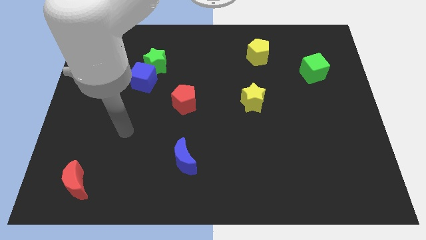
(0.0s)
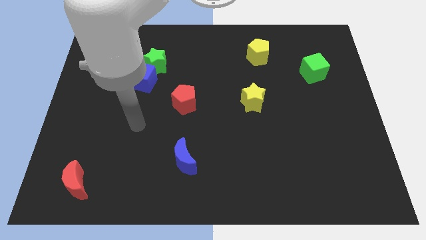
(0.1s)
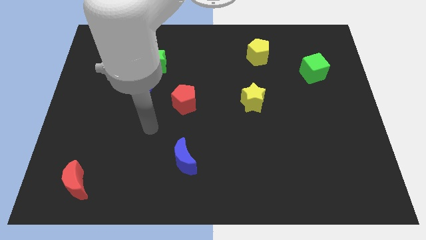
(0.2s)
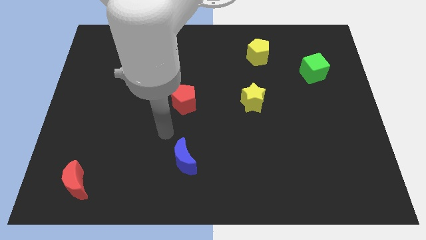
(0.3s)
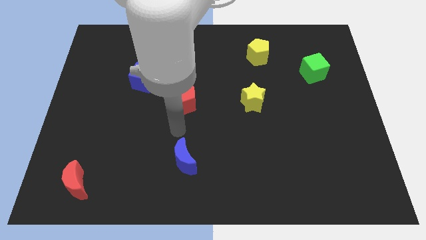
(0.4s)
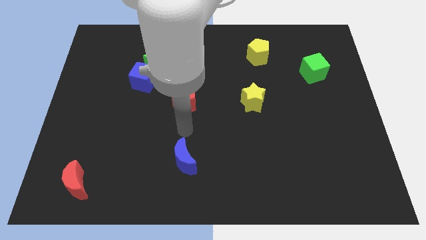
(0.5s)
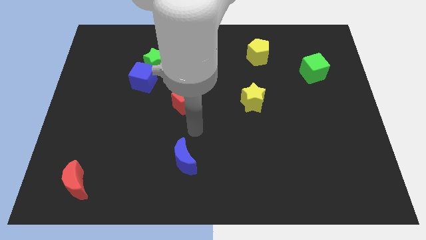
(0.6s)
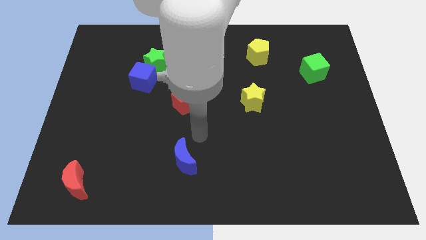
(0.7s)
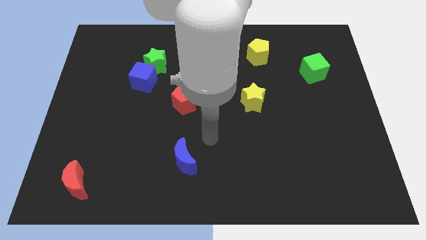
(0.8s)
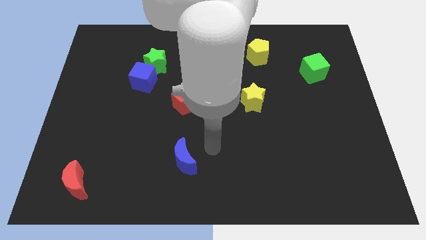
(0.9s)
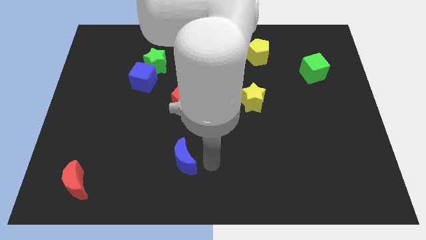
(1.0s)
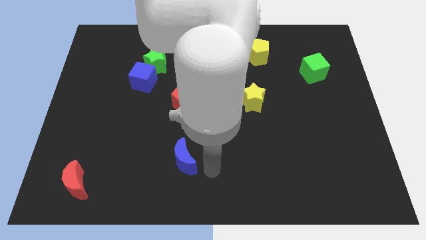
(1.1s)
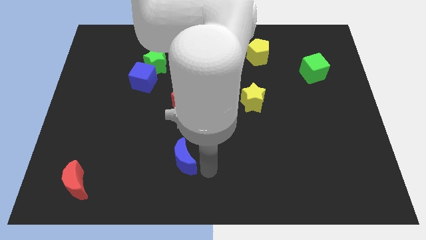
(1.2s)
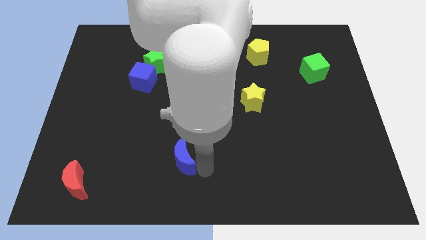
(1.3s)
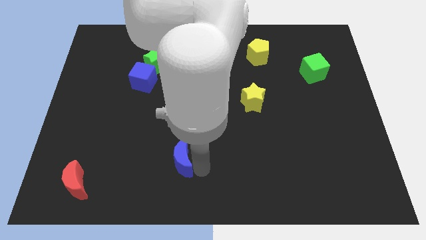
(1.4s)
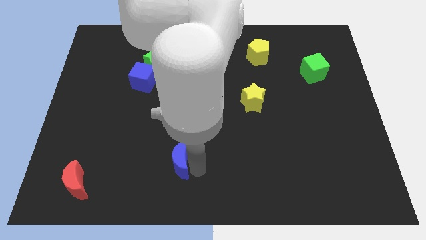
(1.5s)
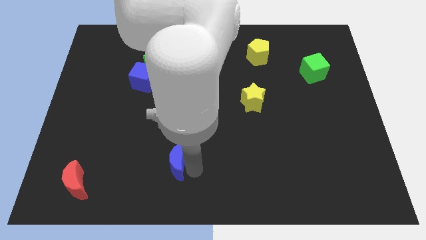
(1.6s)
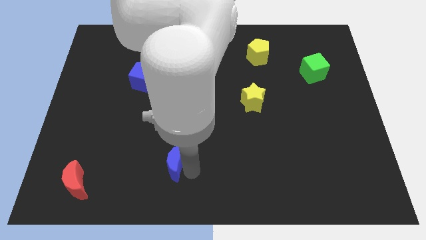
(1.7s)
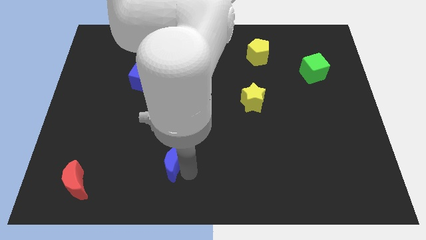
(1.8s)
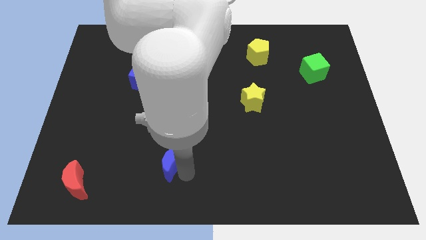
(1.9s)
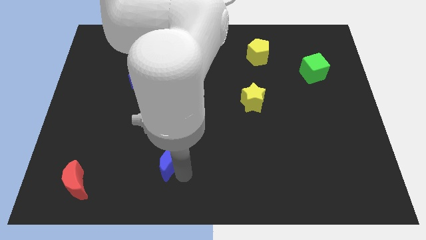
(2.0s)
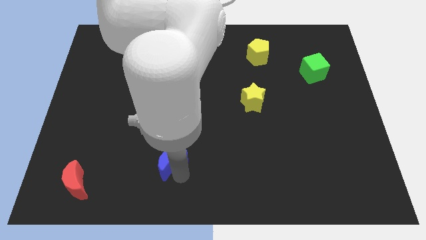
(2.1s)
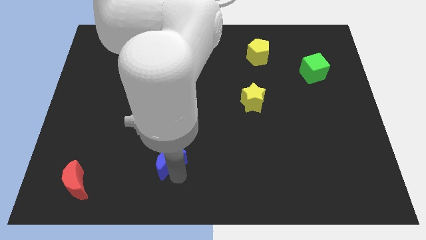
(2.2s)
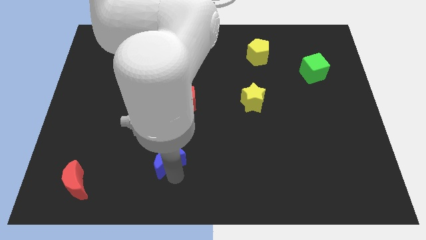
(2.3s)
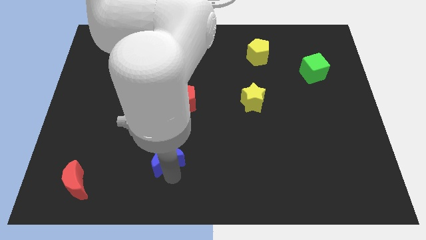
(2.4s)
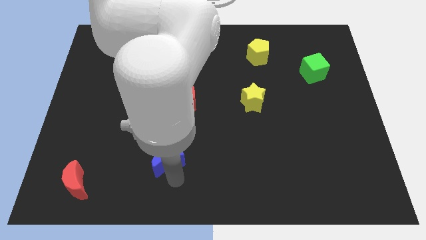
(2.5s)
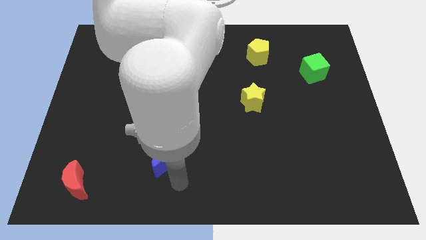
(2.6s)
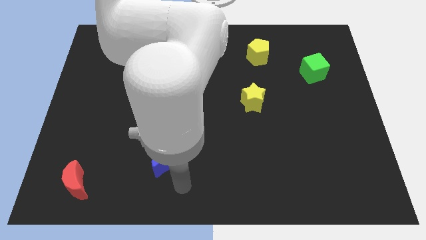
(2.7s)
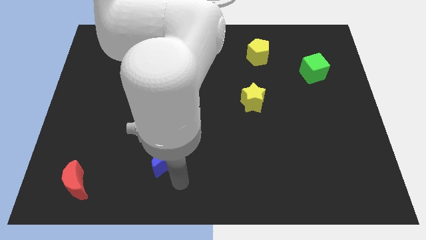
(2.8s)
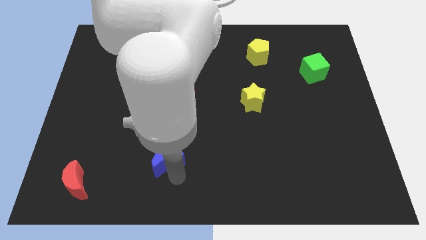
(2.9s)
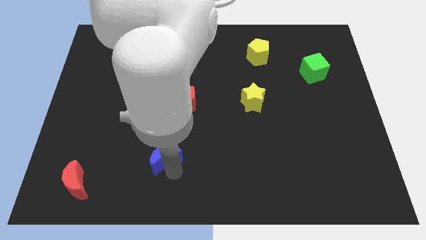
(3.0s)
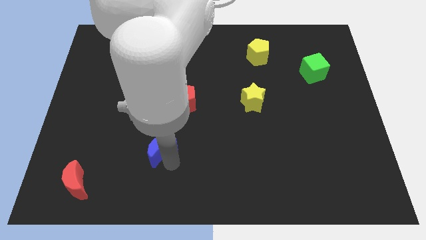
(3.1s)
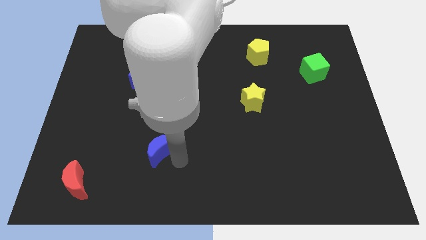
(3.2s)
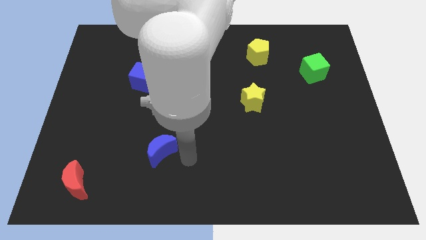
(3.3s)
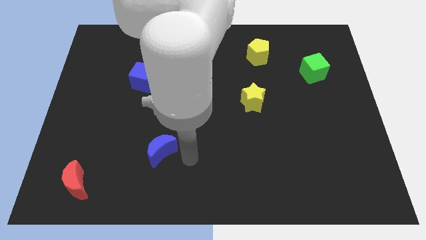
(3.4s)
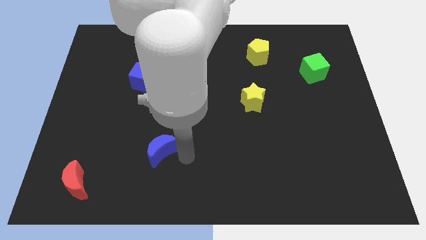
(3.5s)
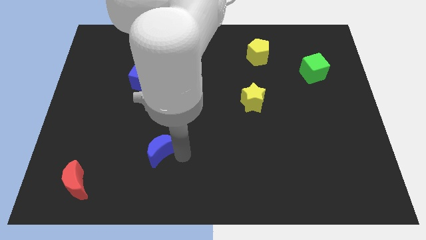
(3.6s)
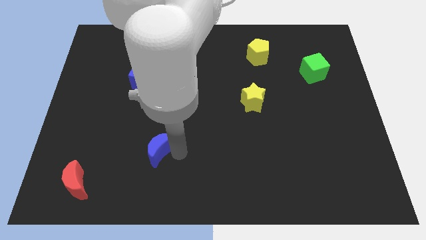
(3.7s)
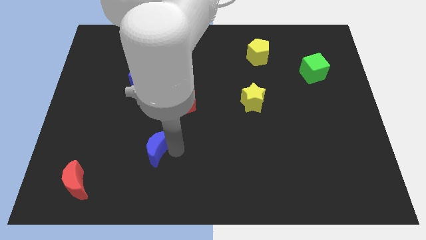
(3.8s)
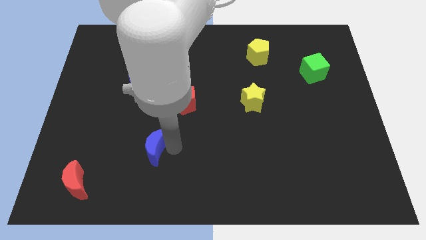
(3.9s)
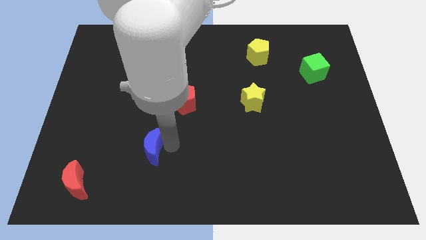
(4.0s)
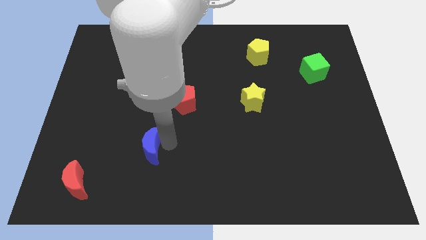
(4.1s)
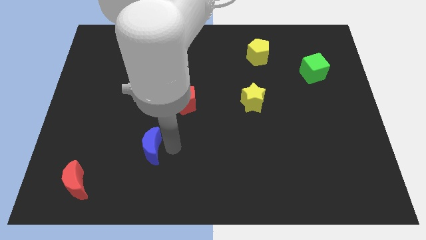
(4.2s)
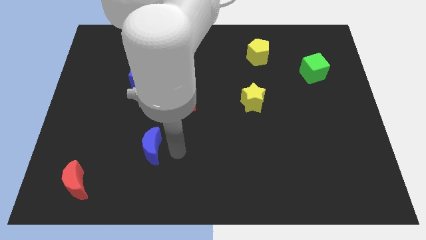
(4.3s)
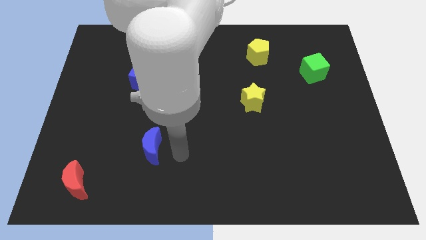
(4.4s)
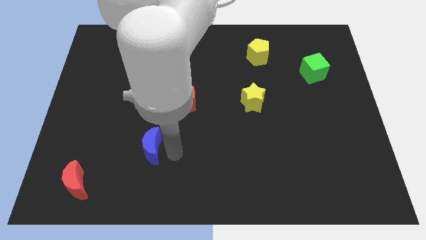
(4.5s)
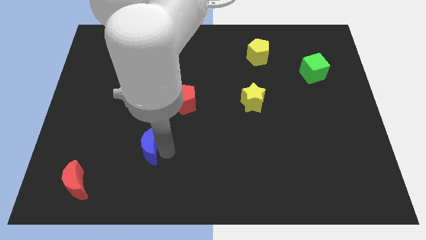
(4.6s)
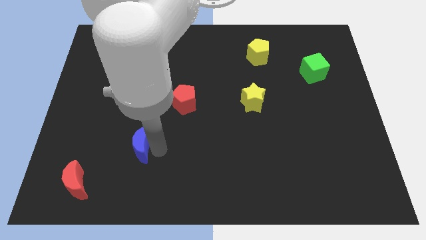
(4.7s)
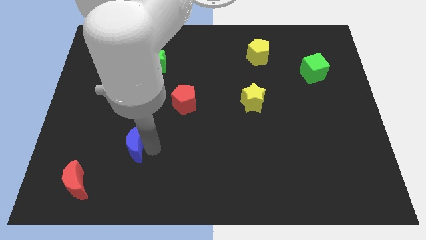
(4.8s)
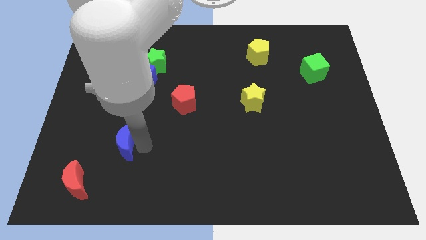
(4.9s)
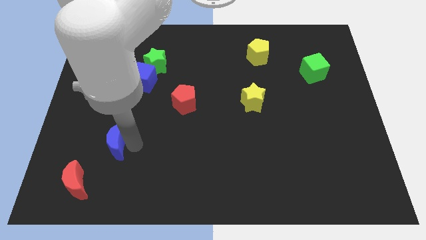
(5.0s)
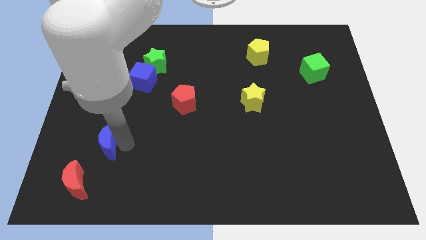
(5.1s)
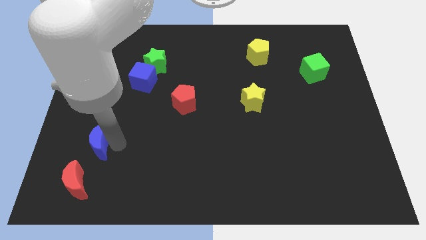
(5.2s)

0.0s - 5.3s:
slide the blue moon to the top of the red moon

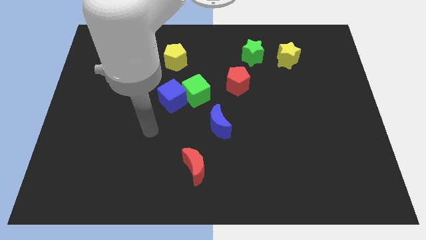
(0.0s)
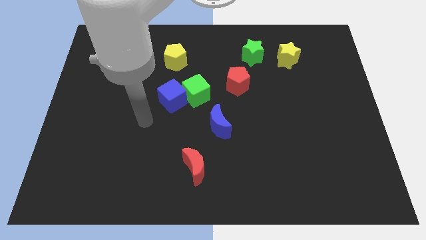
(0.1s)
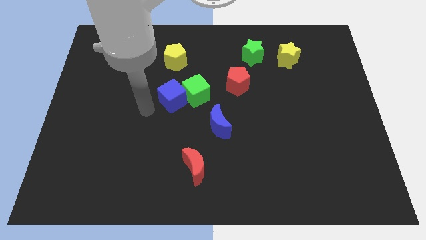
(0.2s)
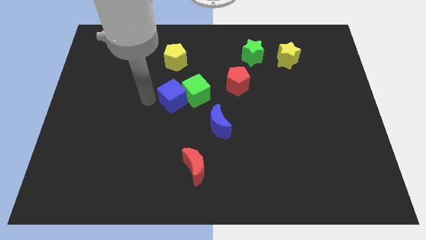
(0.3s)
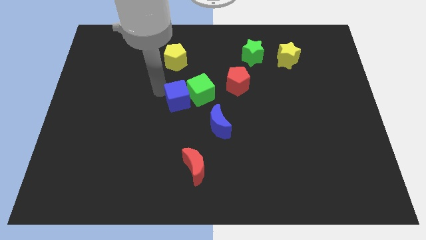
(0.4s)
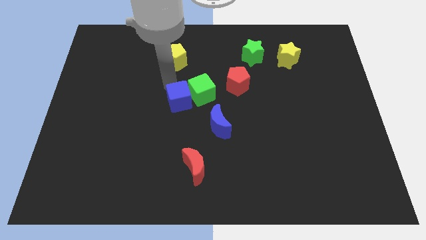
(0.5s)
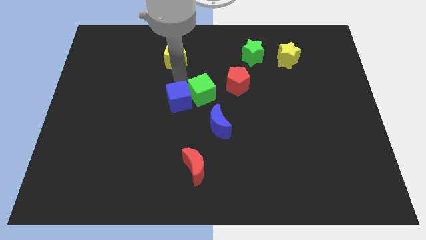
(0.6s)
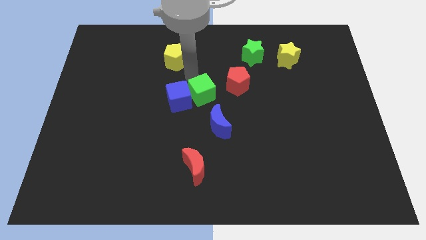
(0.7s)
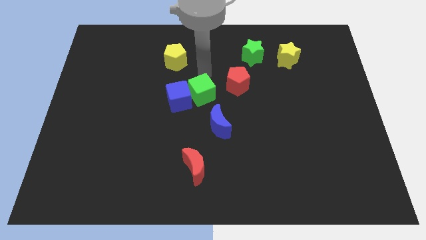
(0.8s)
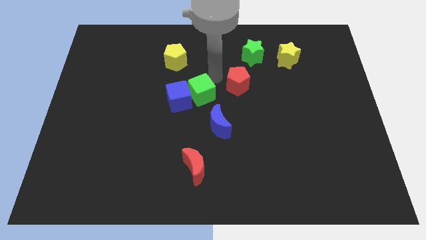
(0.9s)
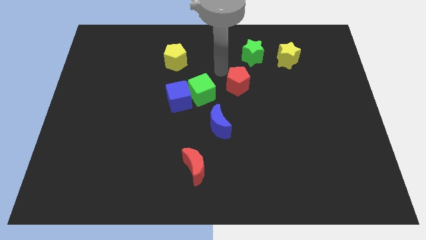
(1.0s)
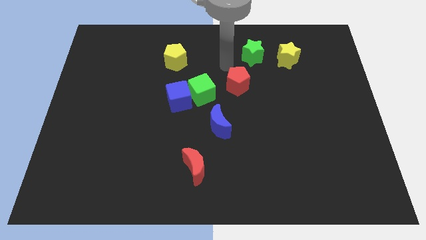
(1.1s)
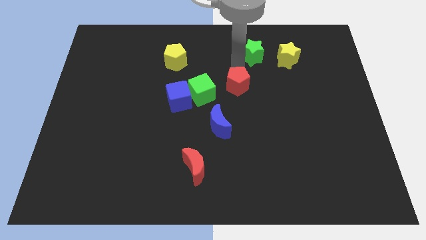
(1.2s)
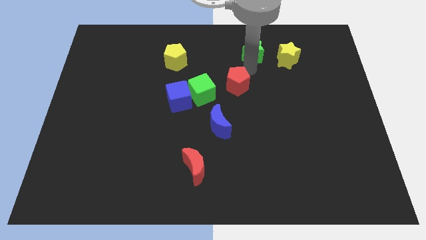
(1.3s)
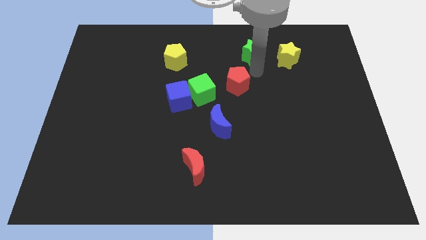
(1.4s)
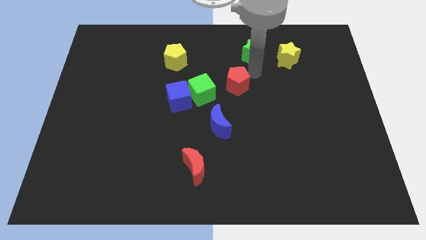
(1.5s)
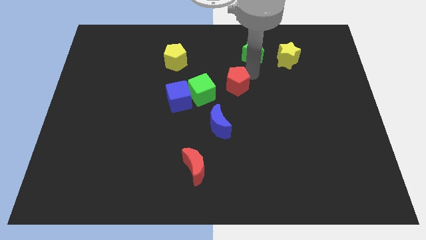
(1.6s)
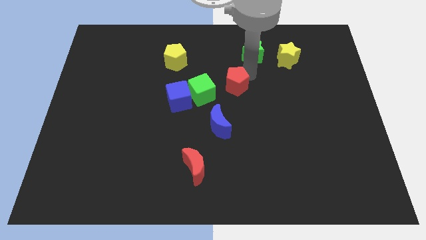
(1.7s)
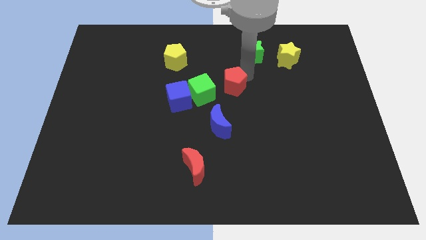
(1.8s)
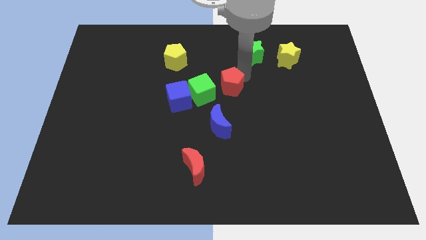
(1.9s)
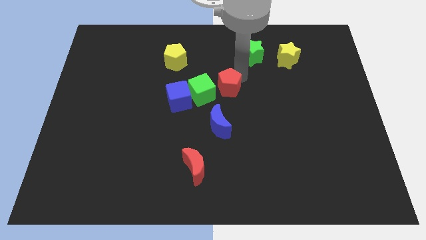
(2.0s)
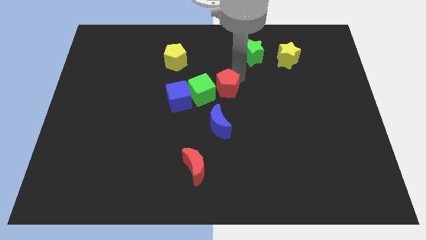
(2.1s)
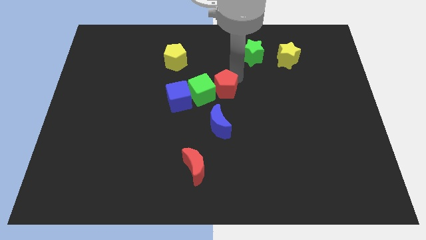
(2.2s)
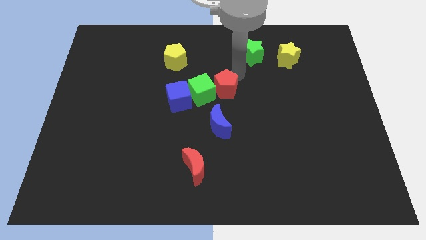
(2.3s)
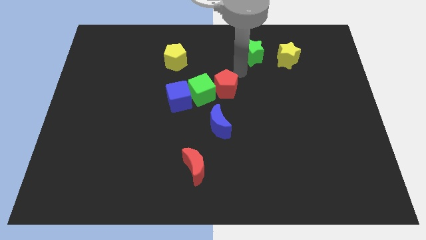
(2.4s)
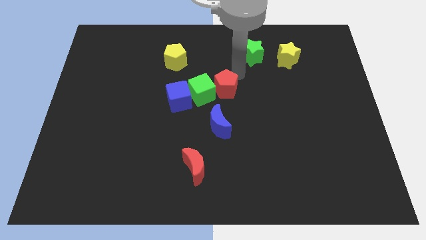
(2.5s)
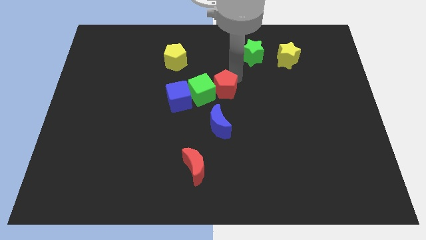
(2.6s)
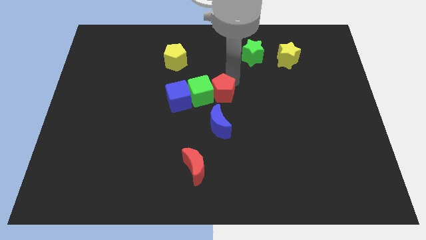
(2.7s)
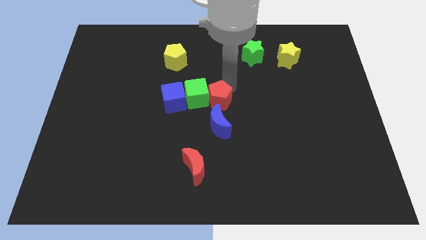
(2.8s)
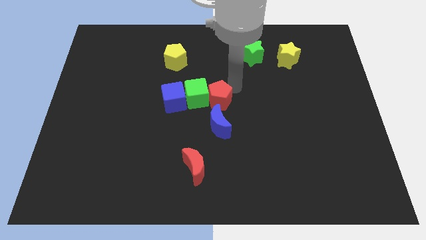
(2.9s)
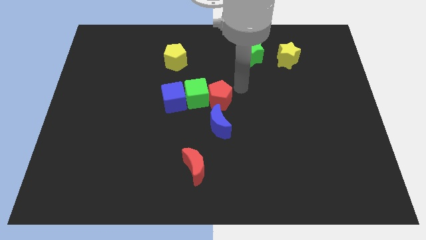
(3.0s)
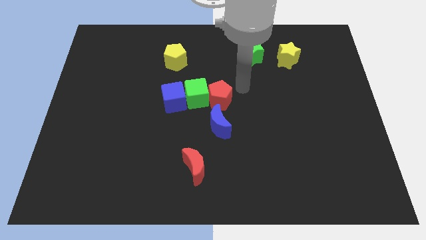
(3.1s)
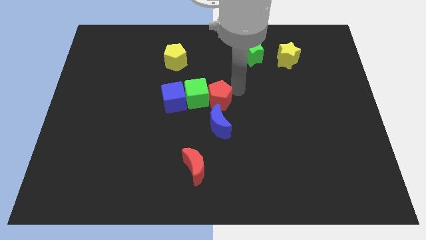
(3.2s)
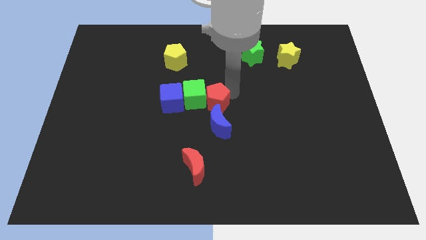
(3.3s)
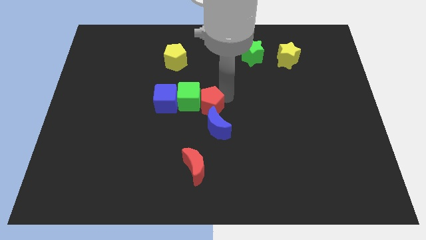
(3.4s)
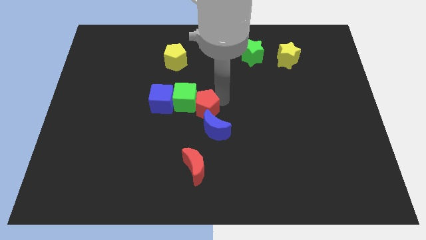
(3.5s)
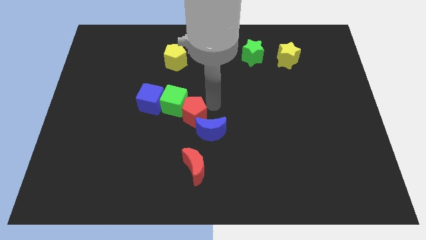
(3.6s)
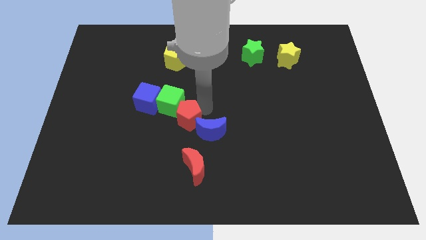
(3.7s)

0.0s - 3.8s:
push the red pentagon to the left of the blue moon
